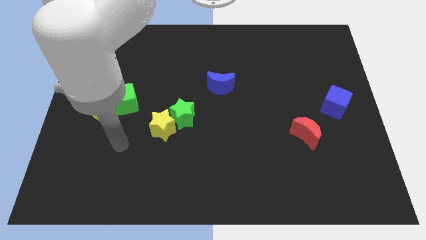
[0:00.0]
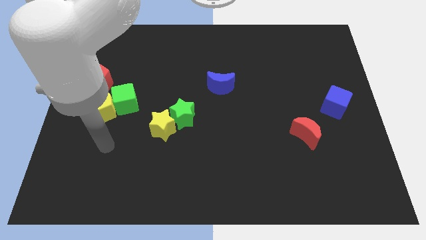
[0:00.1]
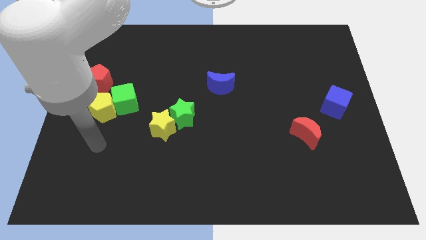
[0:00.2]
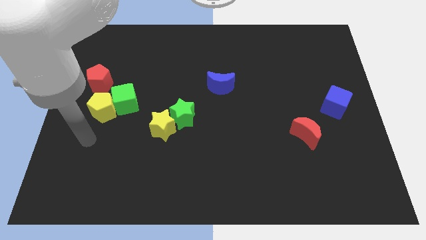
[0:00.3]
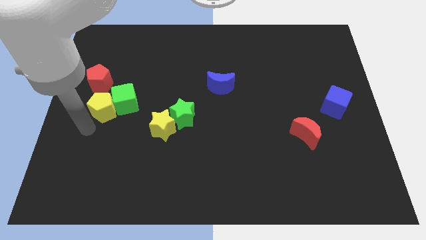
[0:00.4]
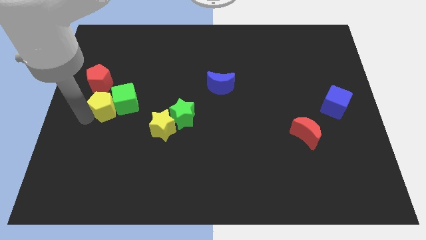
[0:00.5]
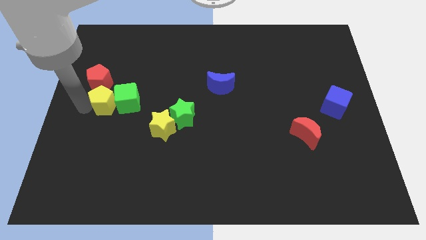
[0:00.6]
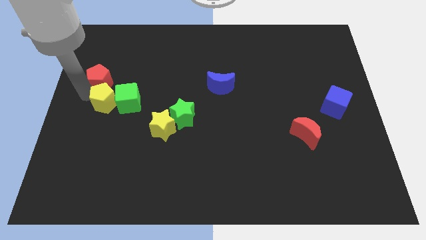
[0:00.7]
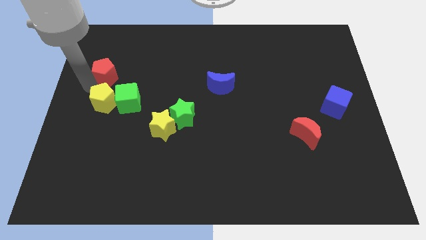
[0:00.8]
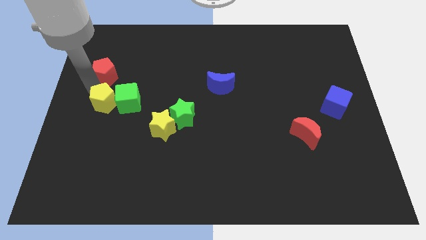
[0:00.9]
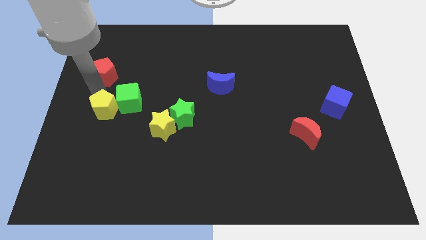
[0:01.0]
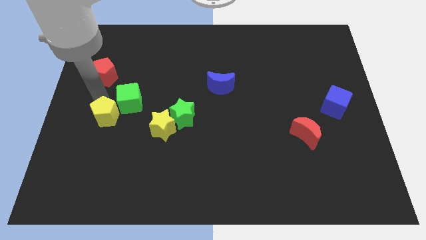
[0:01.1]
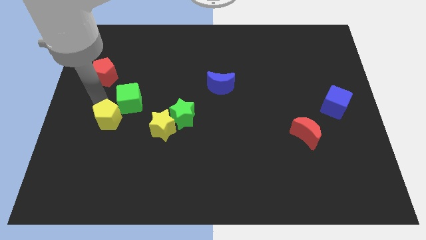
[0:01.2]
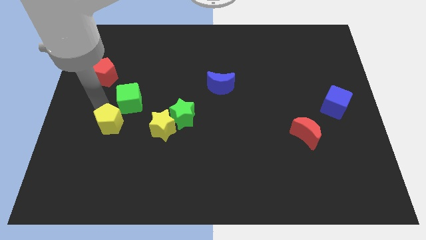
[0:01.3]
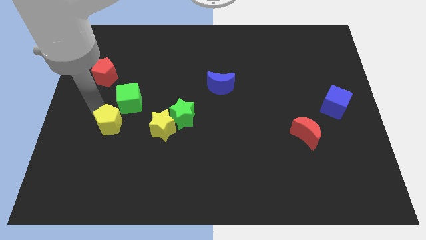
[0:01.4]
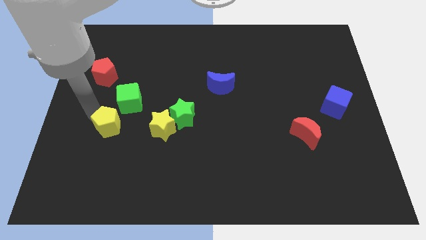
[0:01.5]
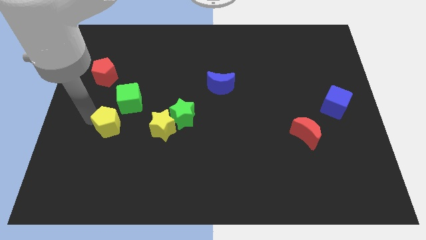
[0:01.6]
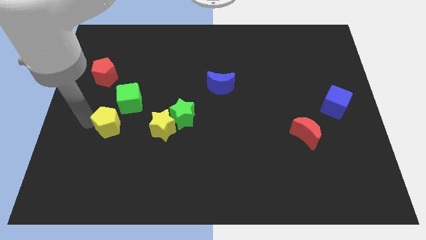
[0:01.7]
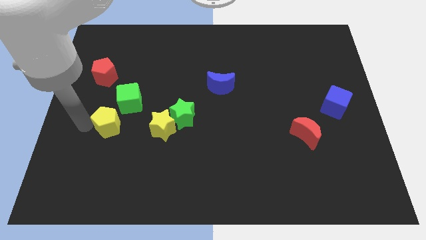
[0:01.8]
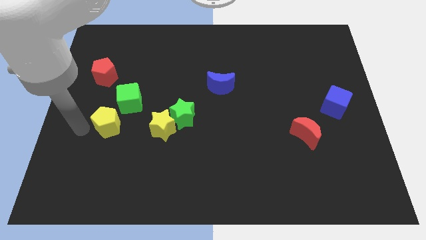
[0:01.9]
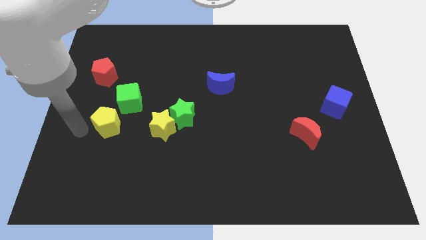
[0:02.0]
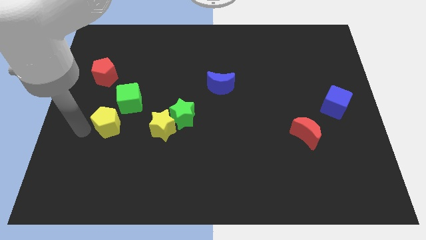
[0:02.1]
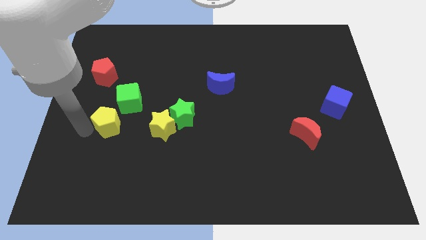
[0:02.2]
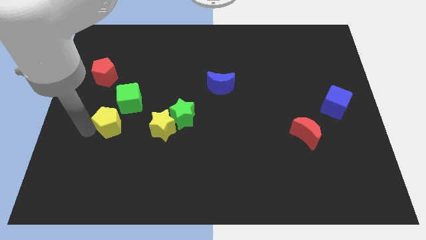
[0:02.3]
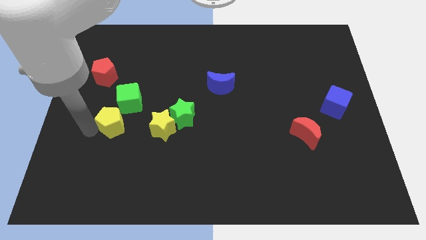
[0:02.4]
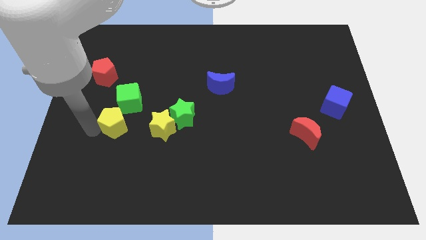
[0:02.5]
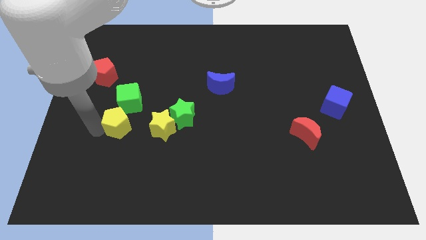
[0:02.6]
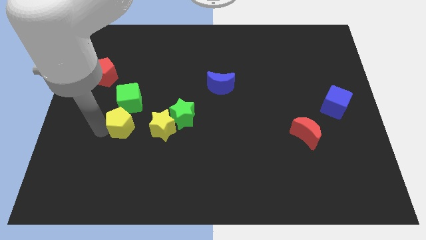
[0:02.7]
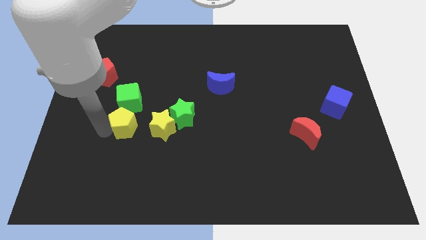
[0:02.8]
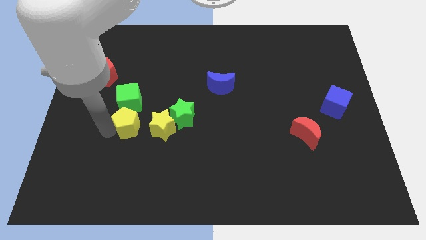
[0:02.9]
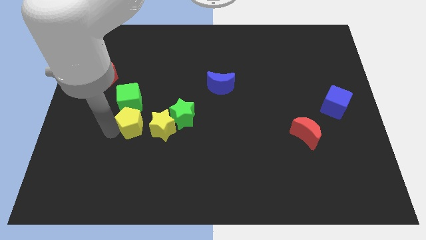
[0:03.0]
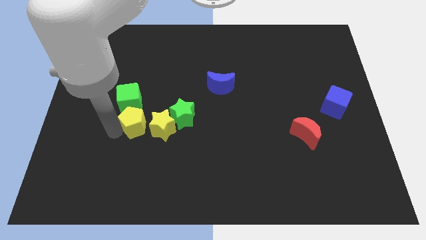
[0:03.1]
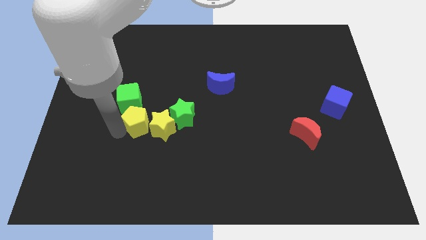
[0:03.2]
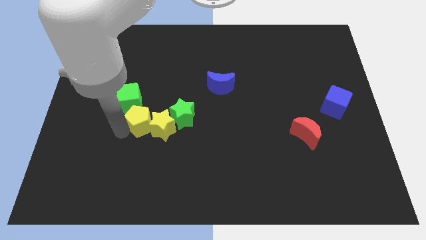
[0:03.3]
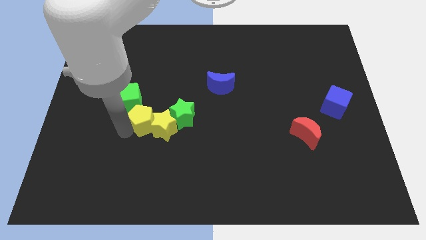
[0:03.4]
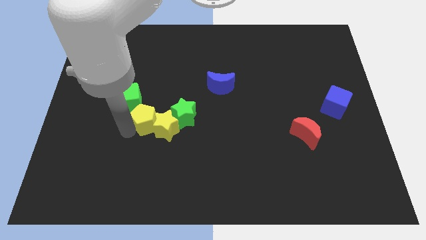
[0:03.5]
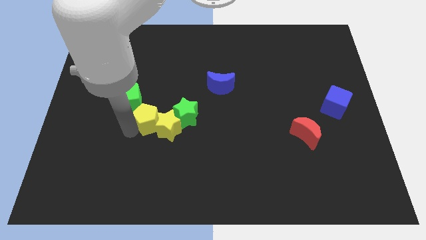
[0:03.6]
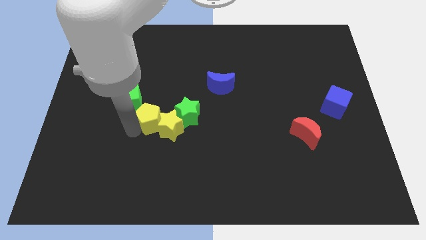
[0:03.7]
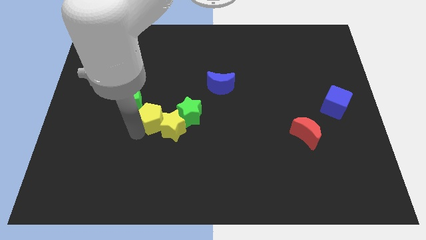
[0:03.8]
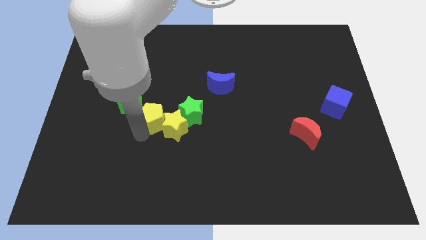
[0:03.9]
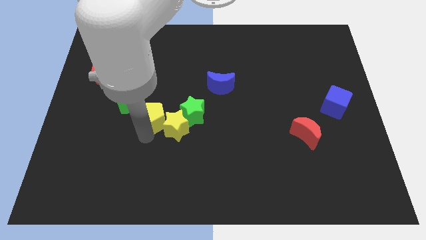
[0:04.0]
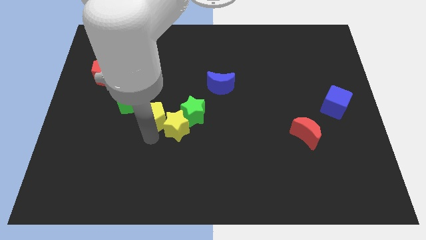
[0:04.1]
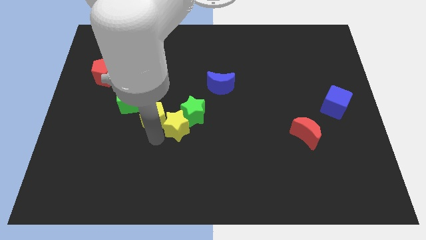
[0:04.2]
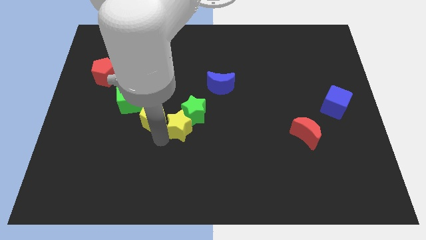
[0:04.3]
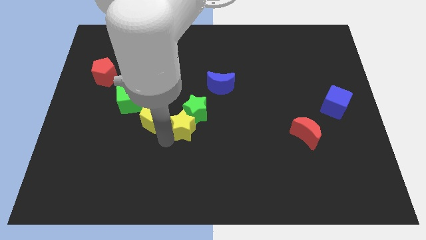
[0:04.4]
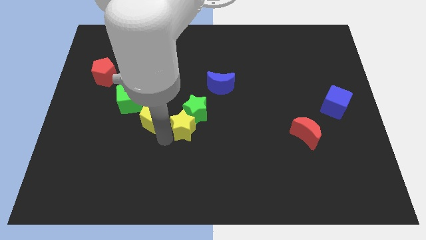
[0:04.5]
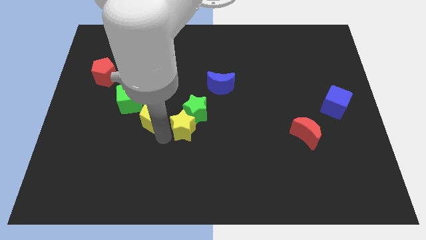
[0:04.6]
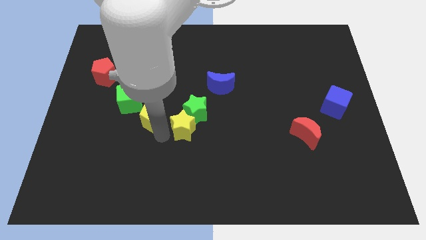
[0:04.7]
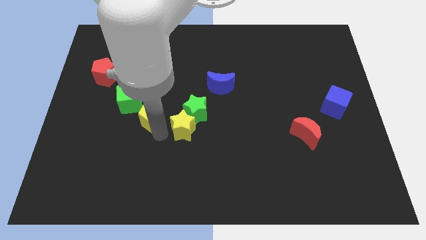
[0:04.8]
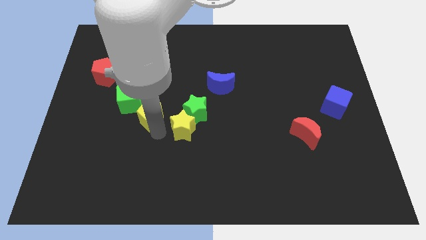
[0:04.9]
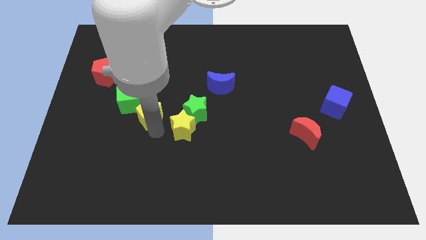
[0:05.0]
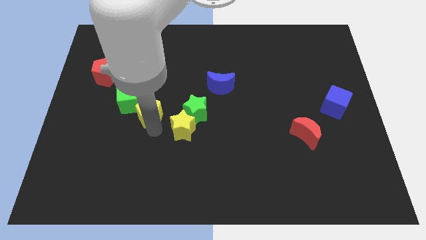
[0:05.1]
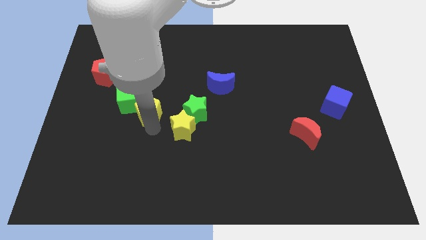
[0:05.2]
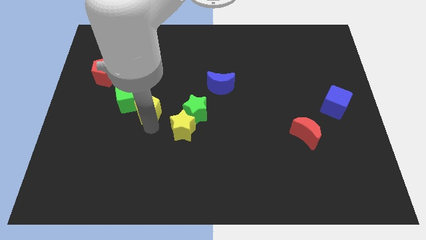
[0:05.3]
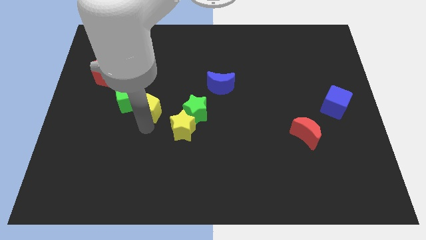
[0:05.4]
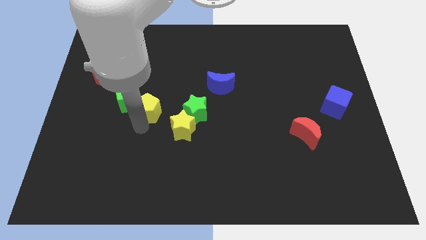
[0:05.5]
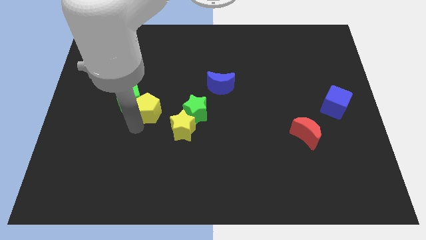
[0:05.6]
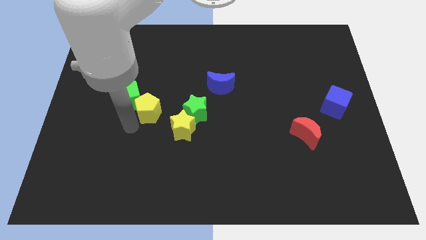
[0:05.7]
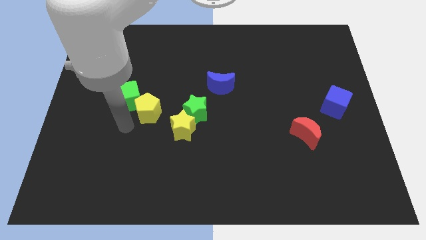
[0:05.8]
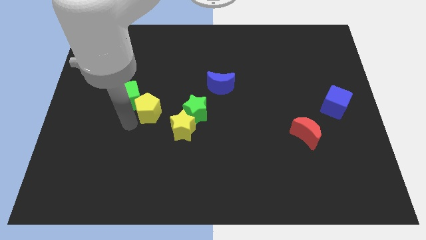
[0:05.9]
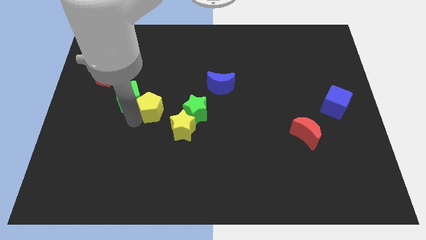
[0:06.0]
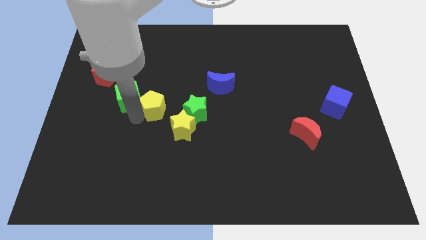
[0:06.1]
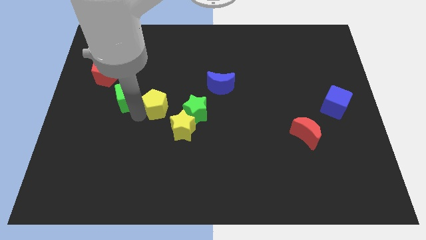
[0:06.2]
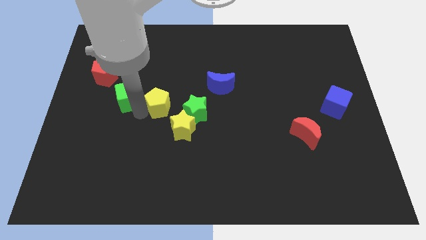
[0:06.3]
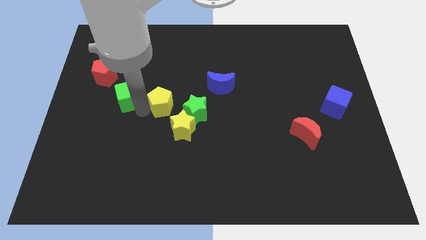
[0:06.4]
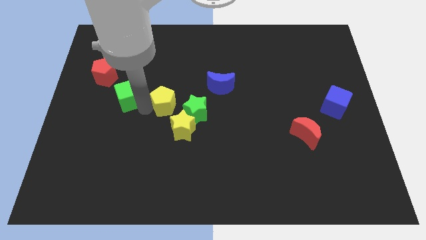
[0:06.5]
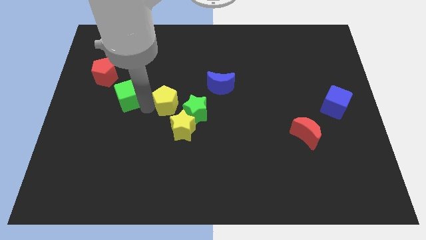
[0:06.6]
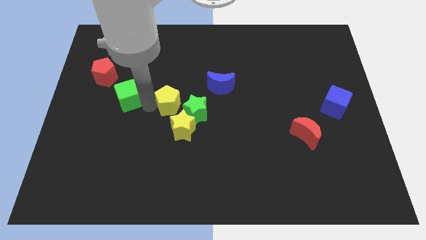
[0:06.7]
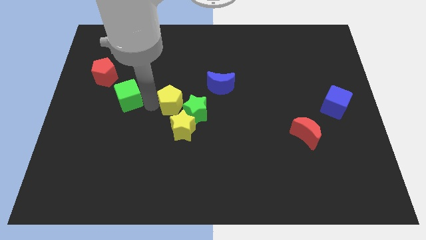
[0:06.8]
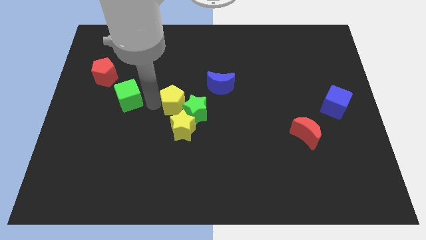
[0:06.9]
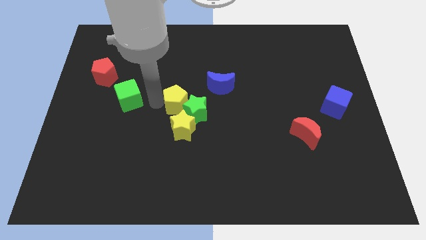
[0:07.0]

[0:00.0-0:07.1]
move the yellow pentagon diagonally down and to the left of the blue moon
